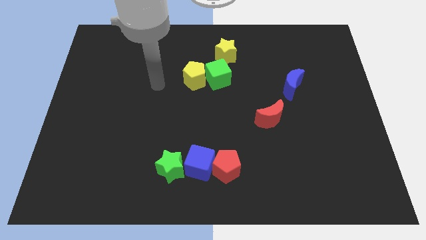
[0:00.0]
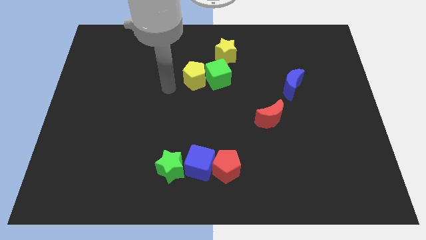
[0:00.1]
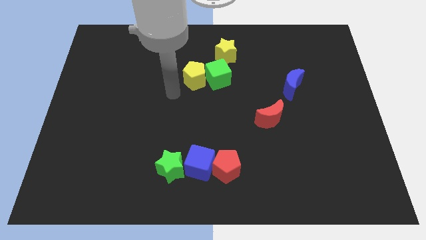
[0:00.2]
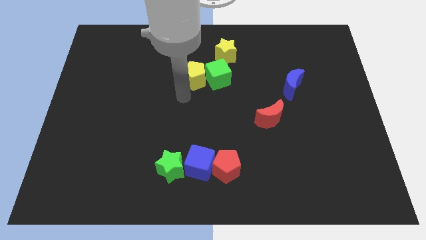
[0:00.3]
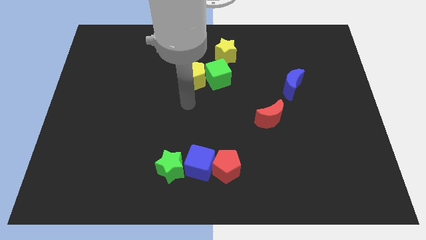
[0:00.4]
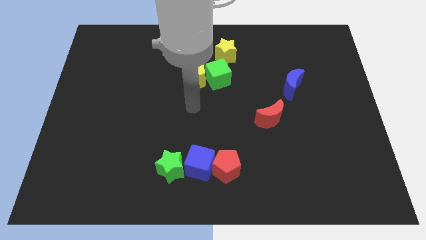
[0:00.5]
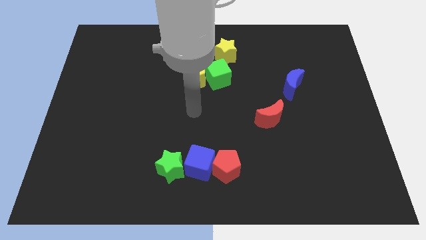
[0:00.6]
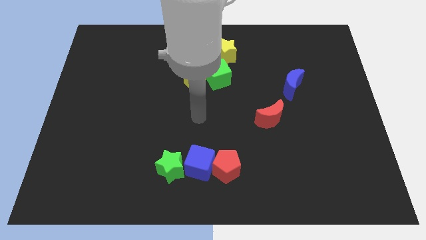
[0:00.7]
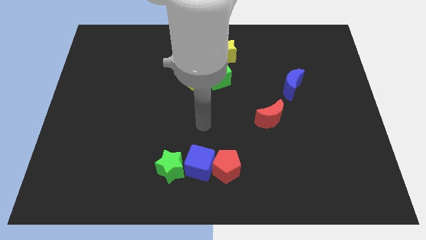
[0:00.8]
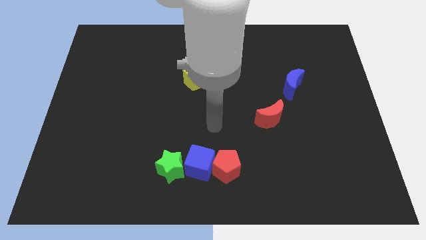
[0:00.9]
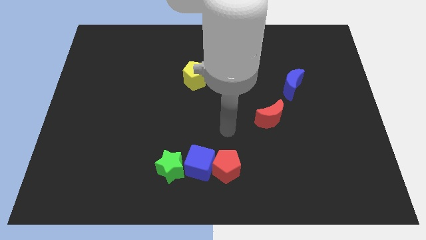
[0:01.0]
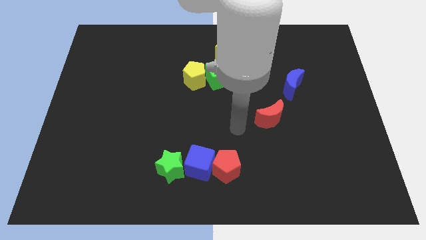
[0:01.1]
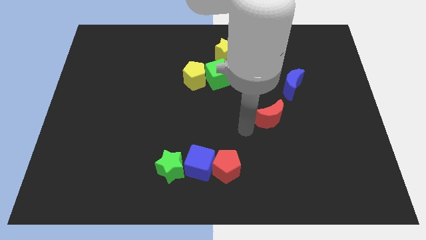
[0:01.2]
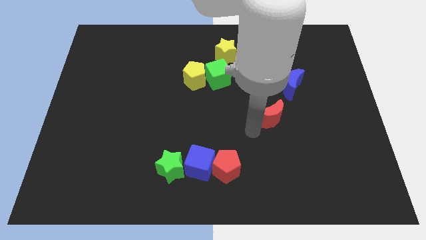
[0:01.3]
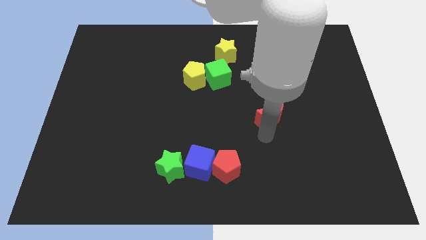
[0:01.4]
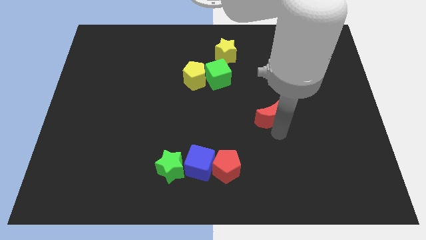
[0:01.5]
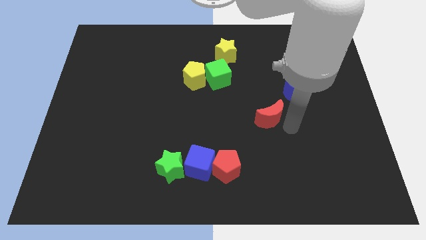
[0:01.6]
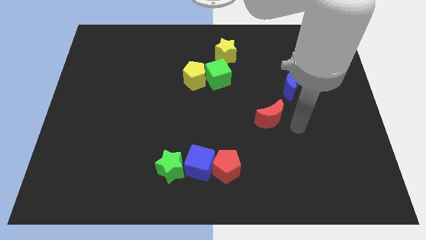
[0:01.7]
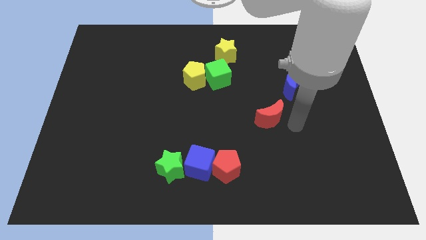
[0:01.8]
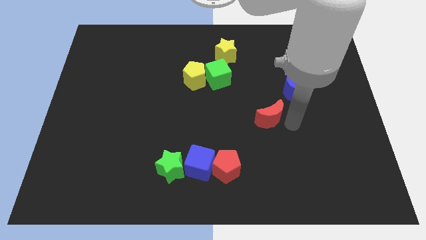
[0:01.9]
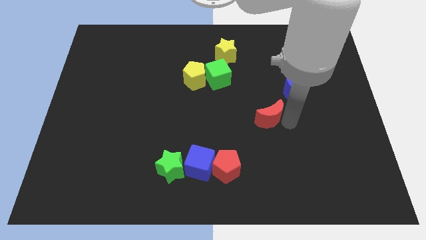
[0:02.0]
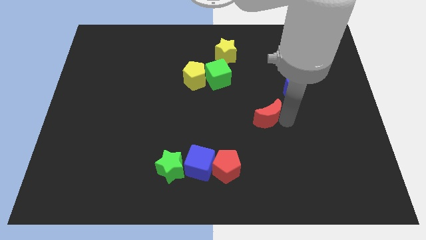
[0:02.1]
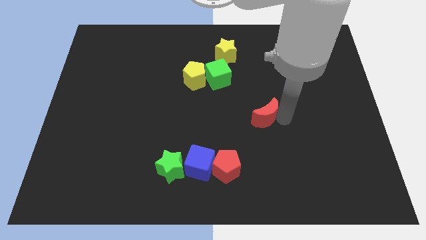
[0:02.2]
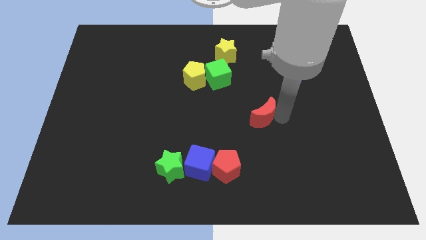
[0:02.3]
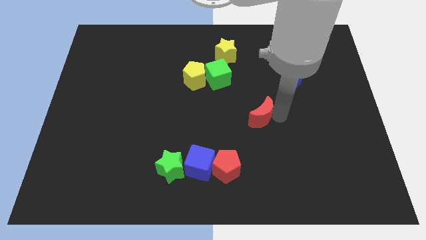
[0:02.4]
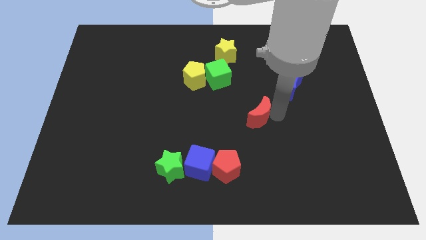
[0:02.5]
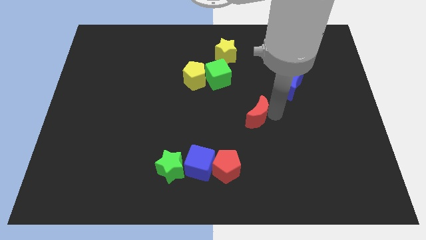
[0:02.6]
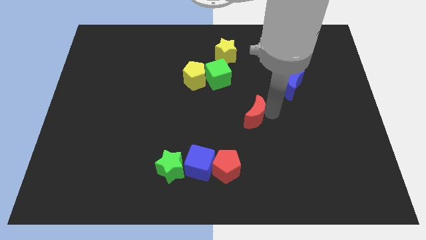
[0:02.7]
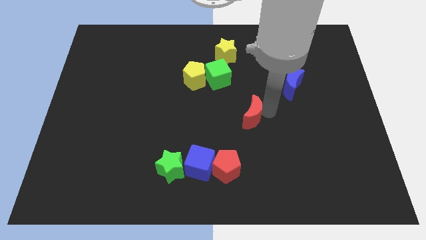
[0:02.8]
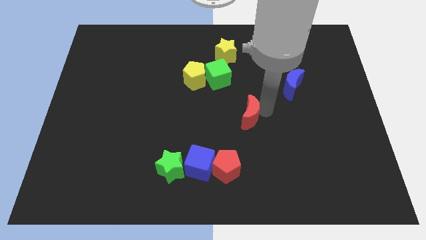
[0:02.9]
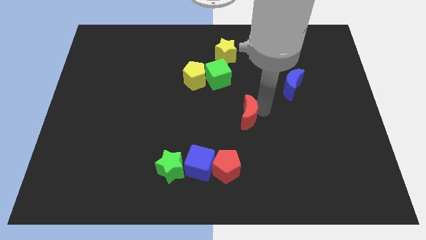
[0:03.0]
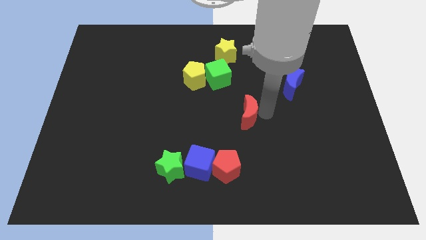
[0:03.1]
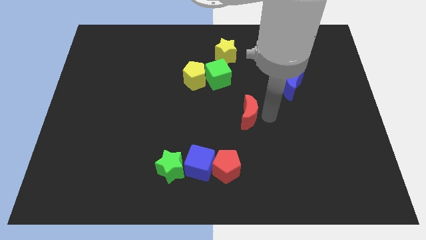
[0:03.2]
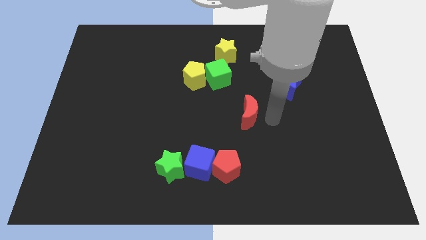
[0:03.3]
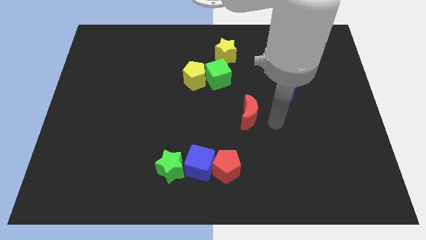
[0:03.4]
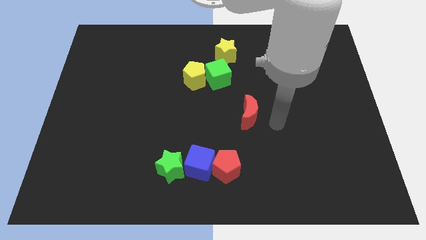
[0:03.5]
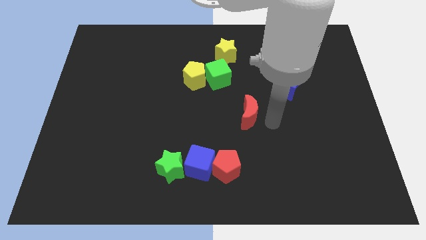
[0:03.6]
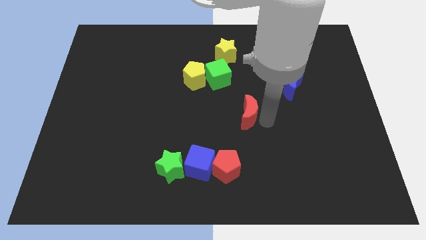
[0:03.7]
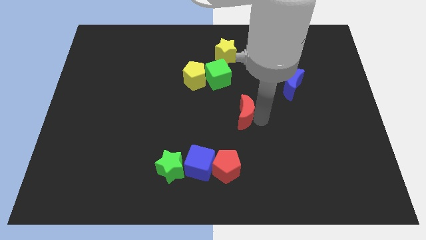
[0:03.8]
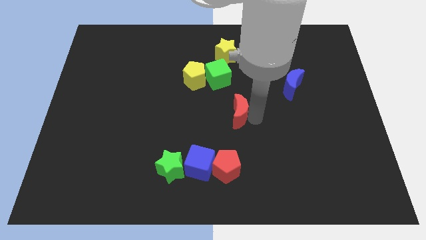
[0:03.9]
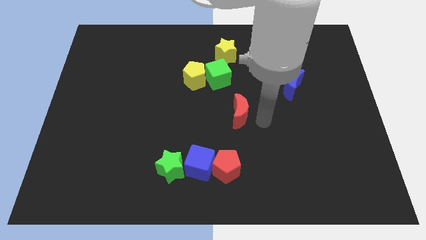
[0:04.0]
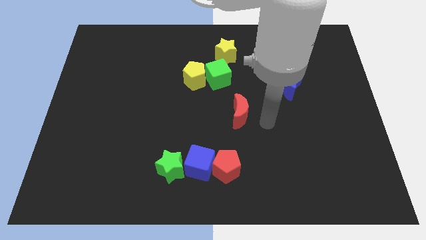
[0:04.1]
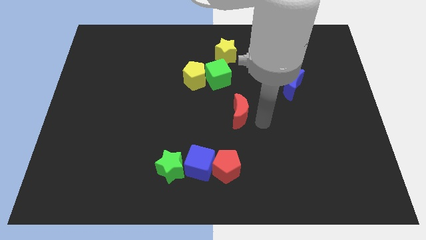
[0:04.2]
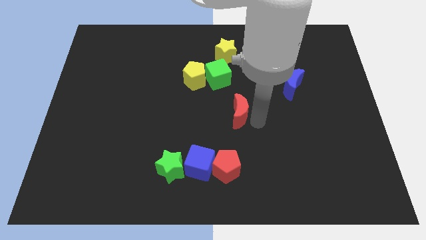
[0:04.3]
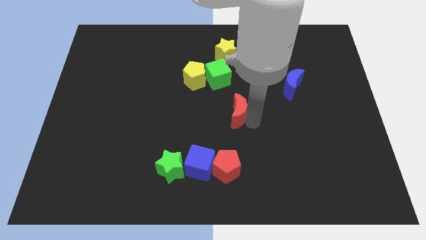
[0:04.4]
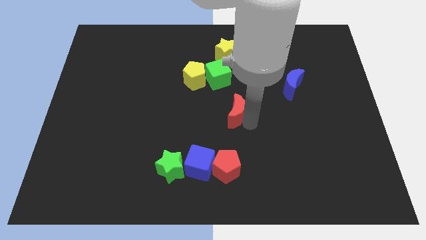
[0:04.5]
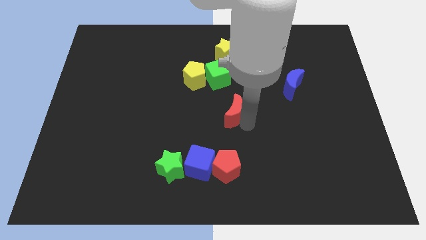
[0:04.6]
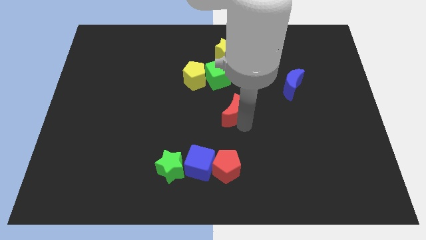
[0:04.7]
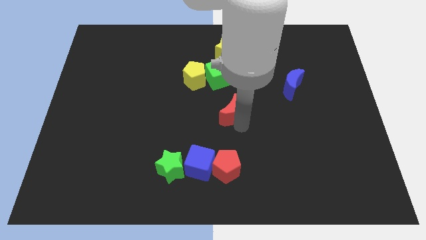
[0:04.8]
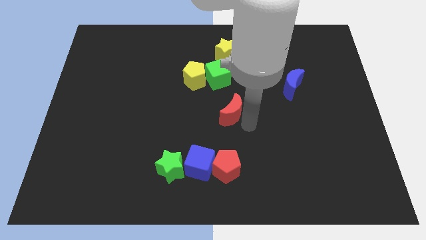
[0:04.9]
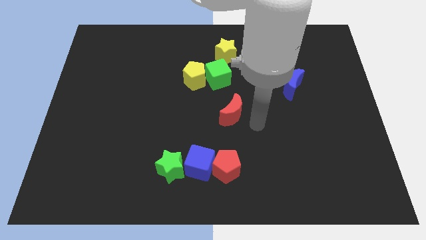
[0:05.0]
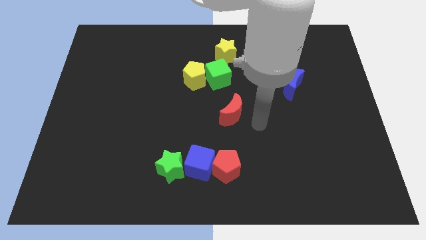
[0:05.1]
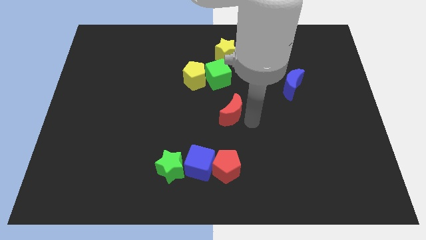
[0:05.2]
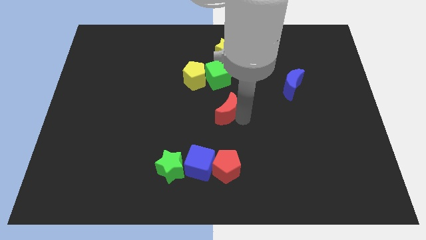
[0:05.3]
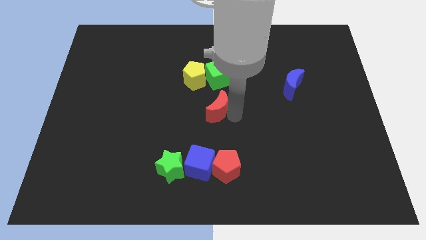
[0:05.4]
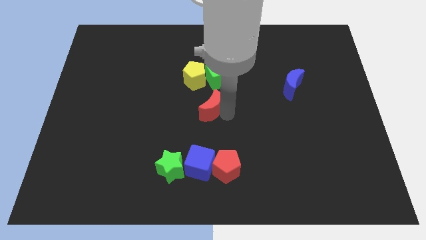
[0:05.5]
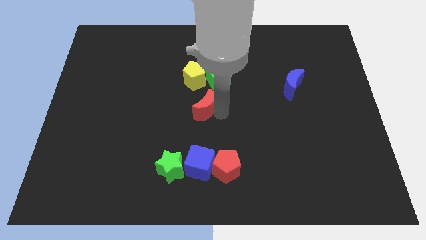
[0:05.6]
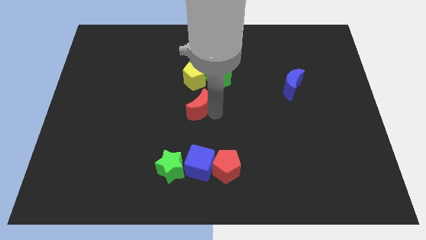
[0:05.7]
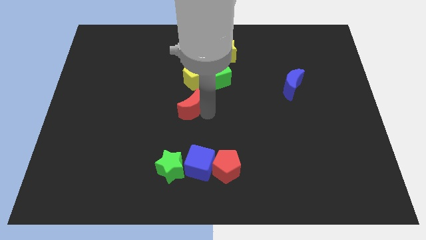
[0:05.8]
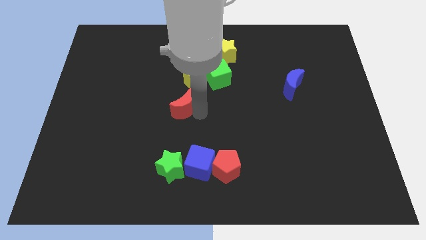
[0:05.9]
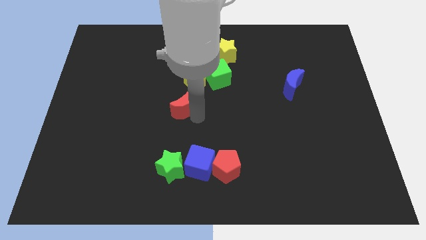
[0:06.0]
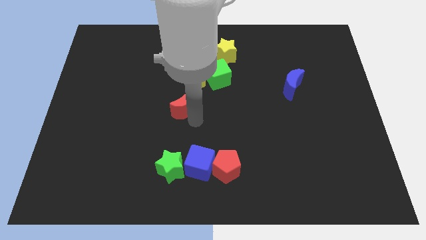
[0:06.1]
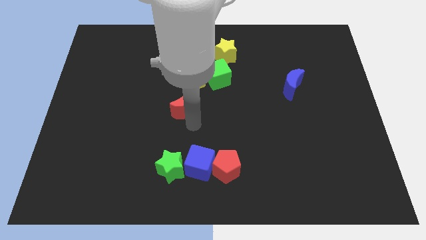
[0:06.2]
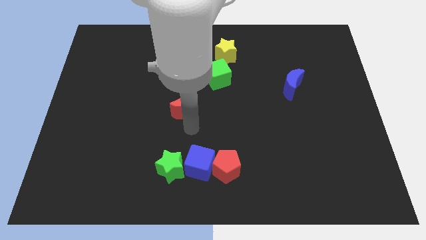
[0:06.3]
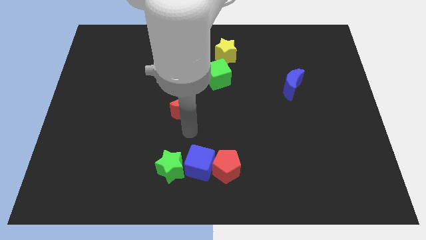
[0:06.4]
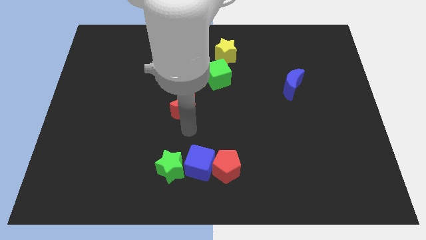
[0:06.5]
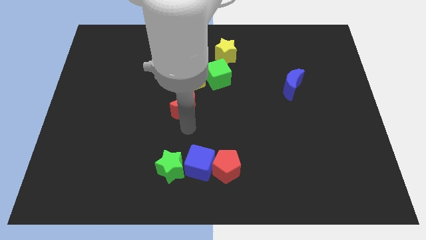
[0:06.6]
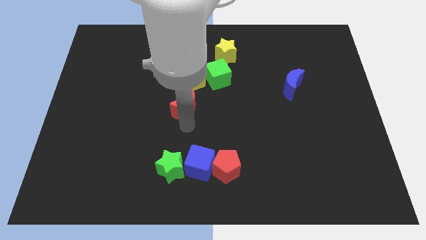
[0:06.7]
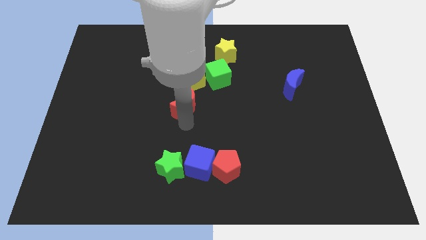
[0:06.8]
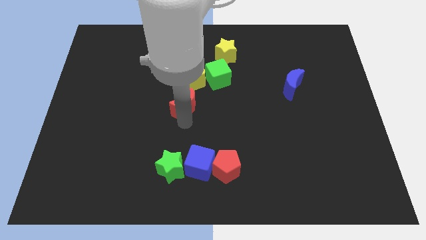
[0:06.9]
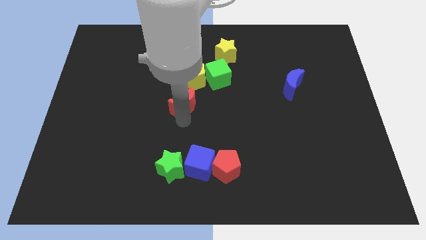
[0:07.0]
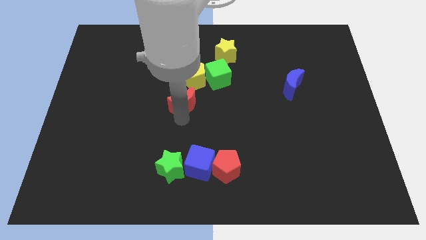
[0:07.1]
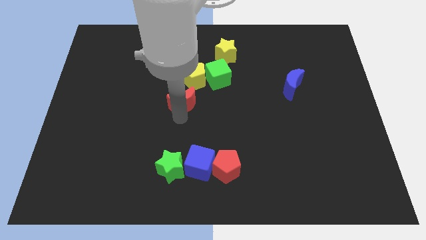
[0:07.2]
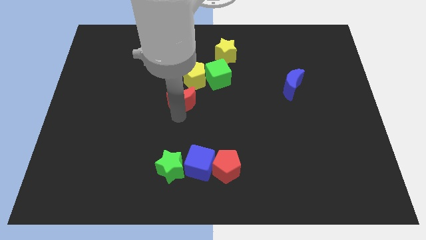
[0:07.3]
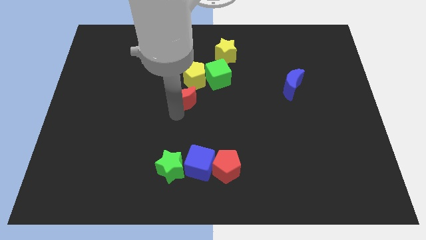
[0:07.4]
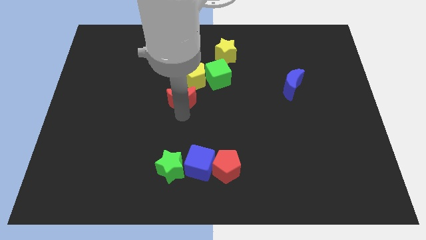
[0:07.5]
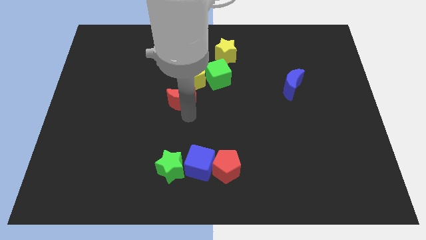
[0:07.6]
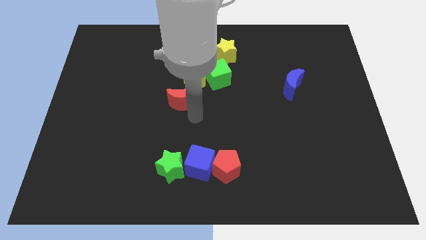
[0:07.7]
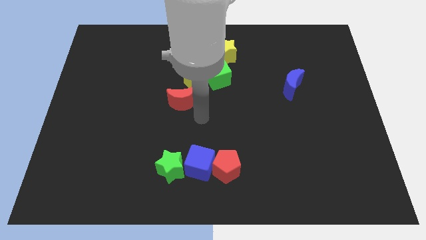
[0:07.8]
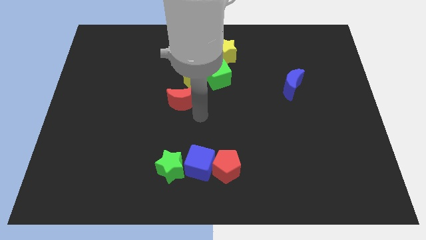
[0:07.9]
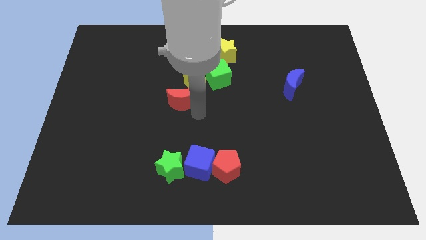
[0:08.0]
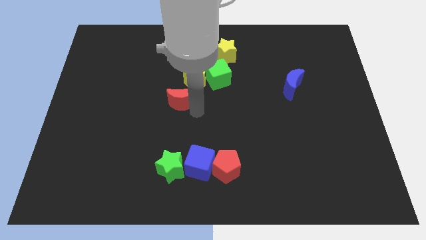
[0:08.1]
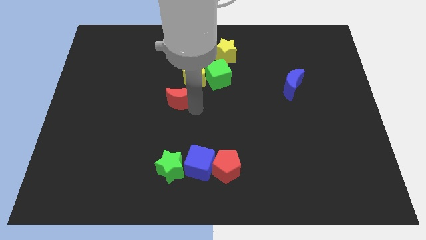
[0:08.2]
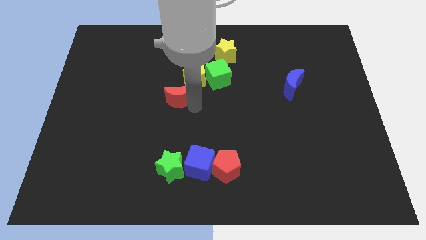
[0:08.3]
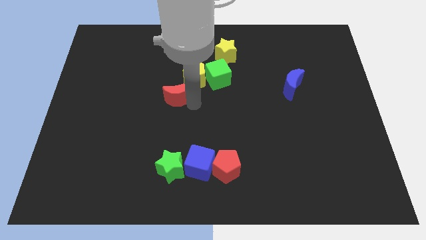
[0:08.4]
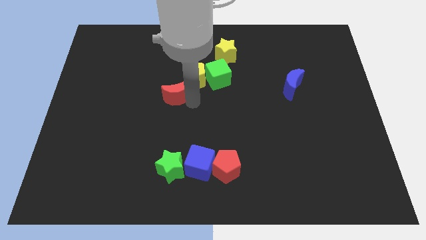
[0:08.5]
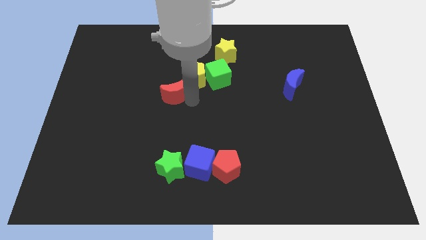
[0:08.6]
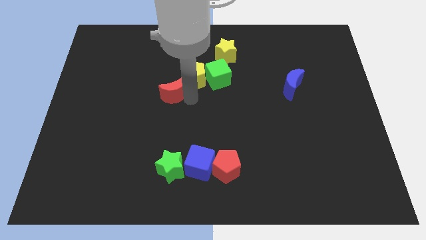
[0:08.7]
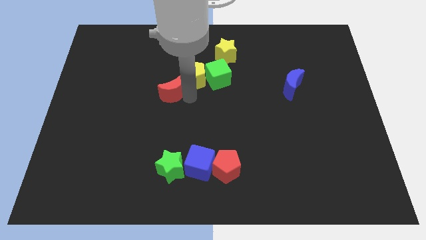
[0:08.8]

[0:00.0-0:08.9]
move the red moon just left of the yellow pentagon
